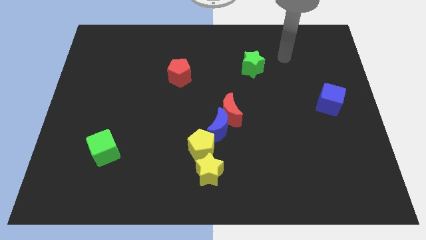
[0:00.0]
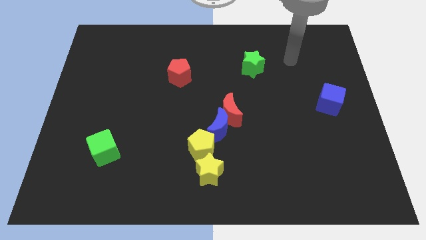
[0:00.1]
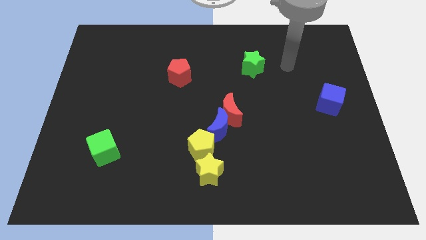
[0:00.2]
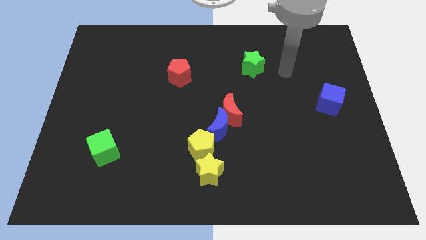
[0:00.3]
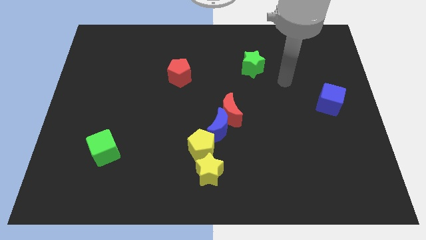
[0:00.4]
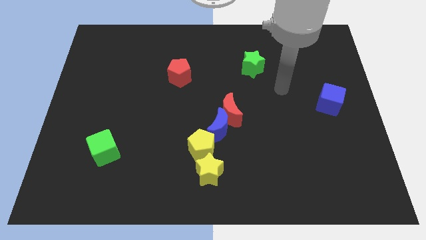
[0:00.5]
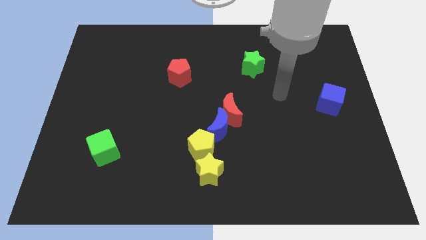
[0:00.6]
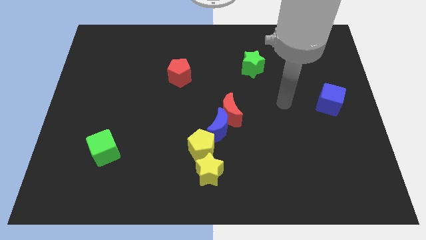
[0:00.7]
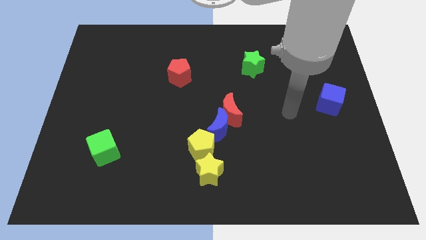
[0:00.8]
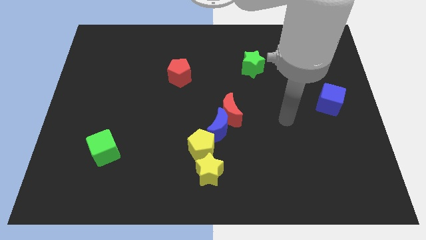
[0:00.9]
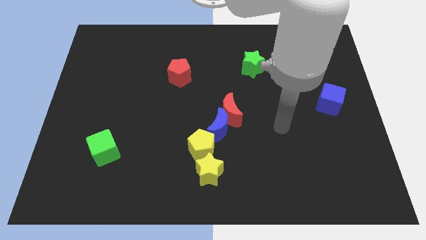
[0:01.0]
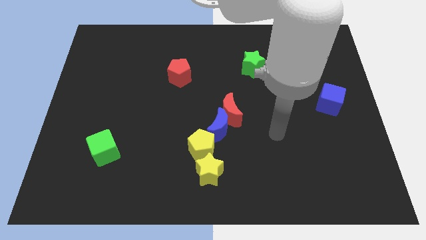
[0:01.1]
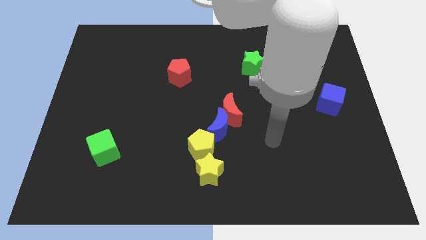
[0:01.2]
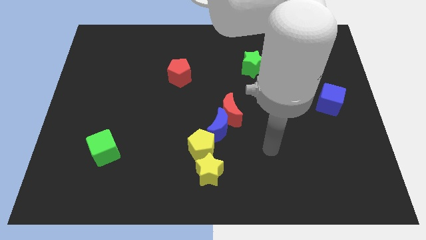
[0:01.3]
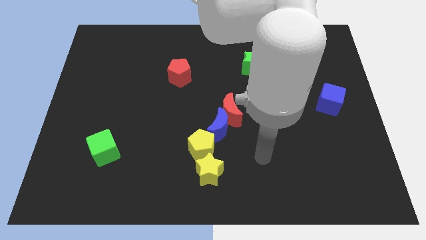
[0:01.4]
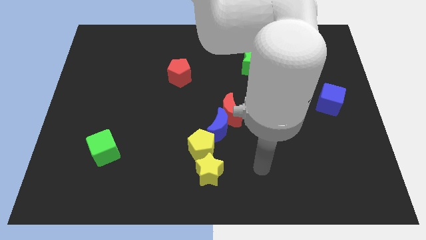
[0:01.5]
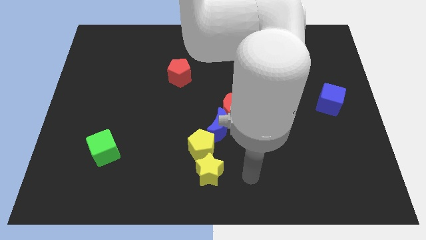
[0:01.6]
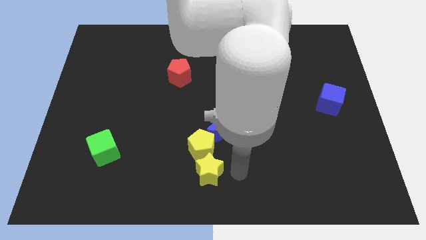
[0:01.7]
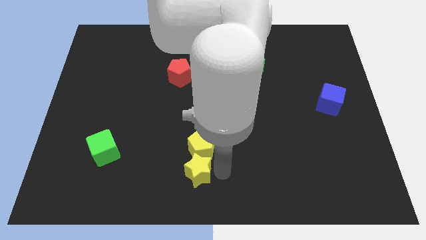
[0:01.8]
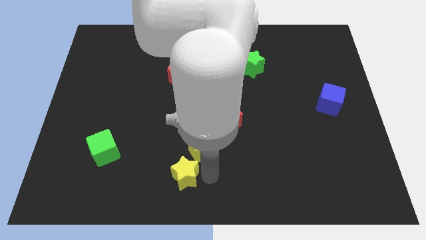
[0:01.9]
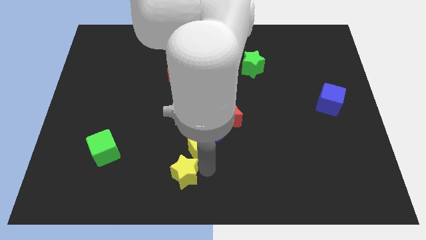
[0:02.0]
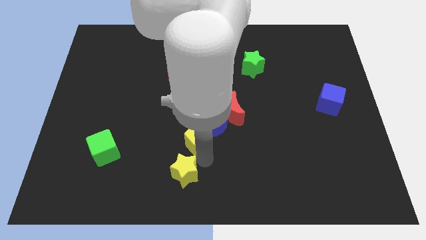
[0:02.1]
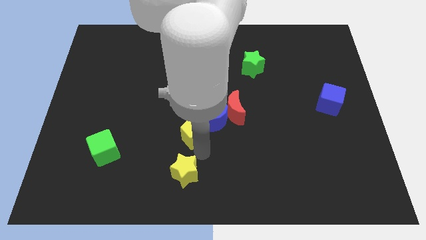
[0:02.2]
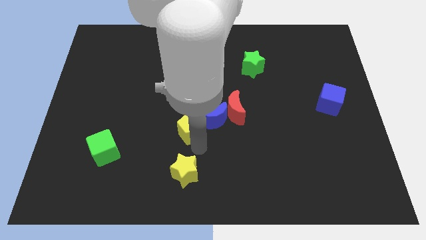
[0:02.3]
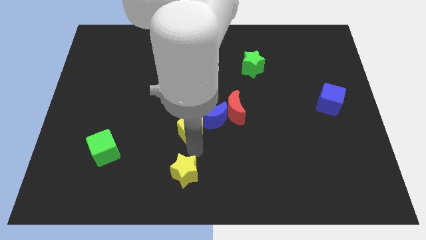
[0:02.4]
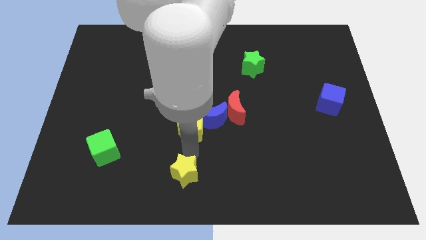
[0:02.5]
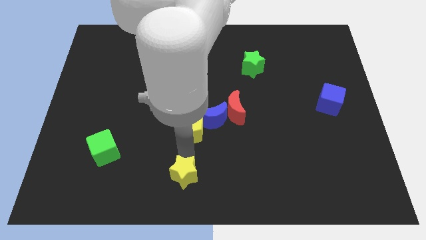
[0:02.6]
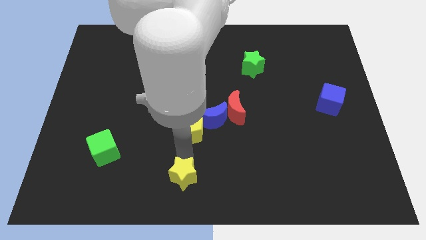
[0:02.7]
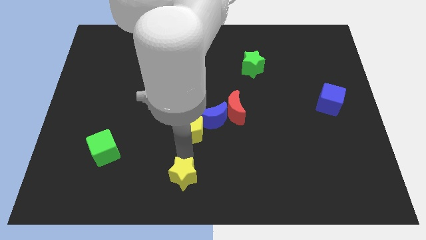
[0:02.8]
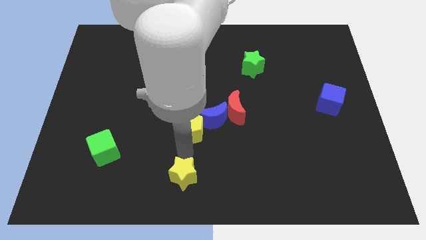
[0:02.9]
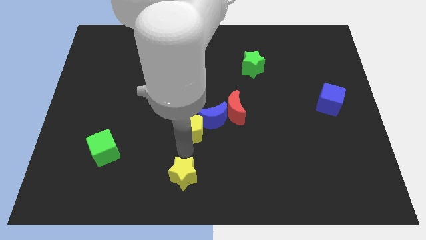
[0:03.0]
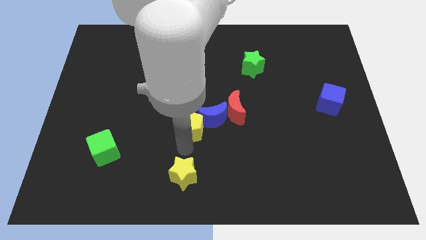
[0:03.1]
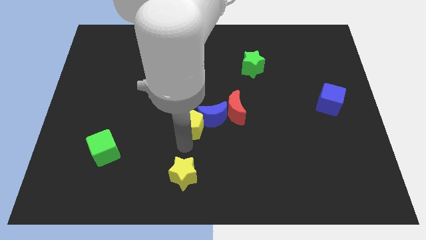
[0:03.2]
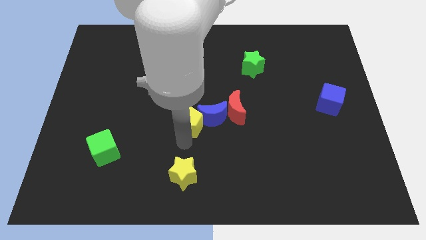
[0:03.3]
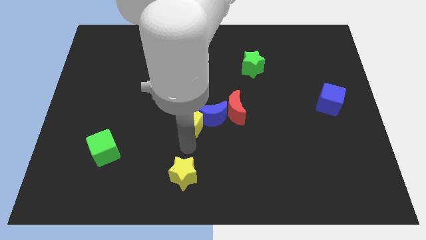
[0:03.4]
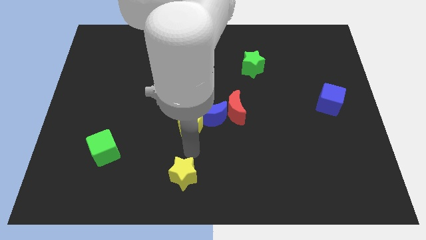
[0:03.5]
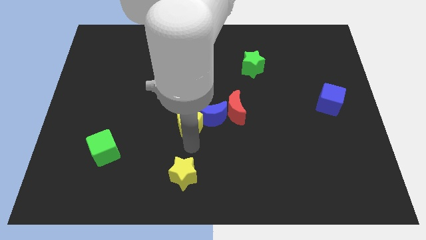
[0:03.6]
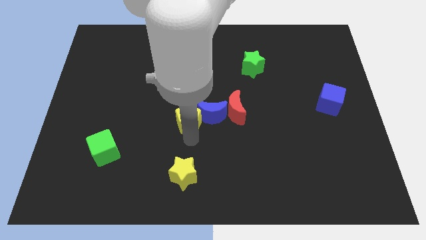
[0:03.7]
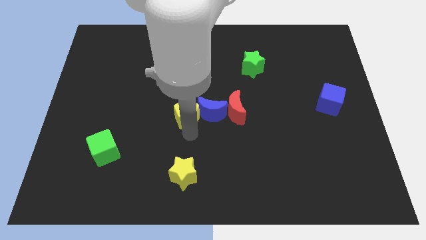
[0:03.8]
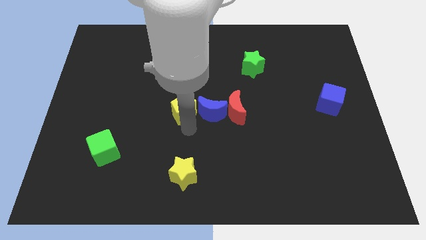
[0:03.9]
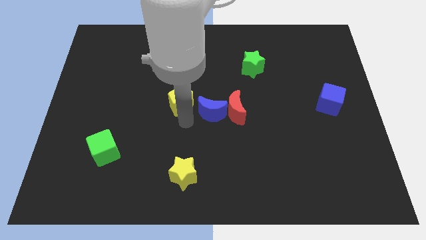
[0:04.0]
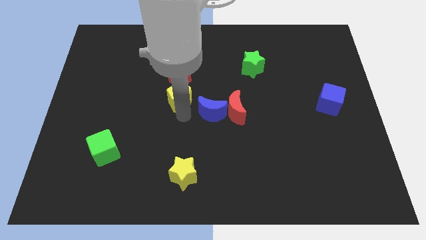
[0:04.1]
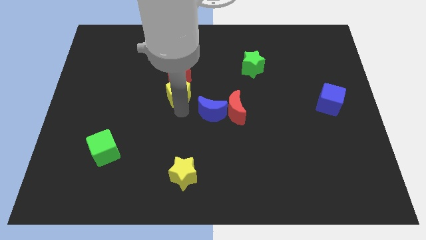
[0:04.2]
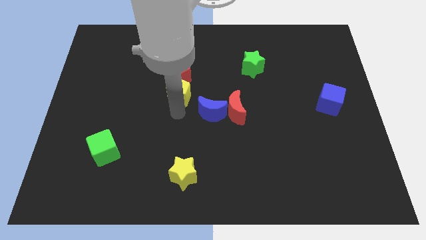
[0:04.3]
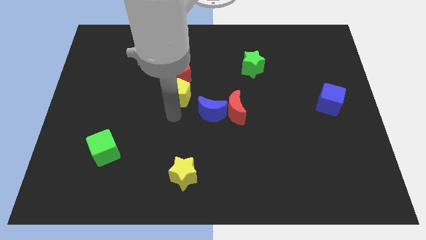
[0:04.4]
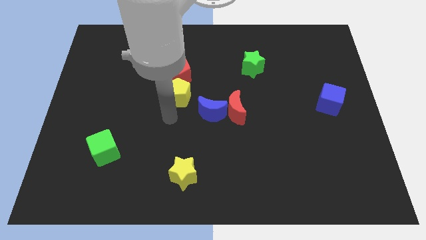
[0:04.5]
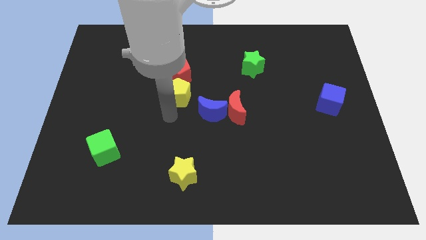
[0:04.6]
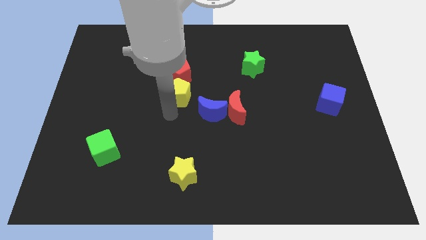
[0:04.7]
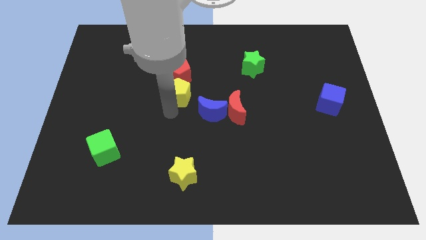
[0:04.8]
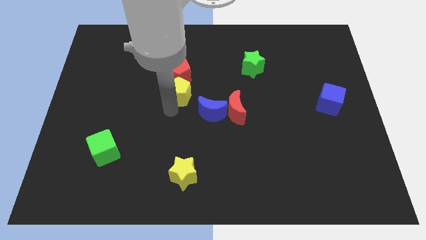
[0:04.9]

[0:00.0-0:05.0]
put the yellow pentagon towards the red pentagon

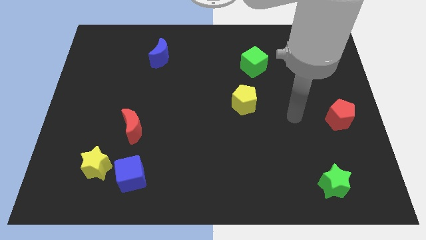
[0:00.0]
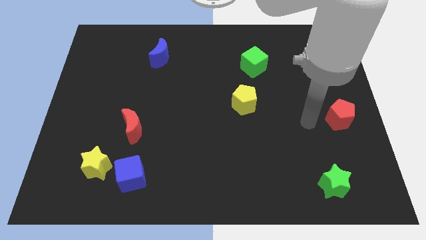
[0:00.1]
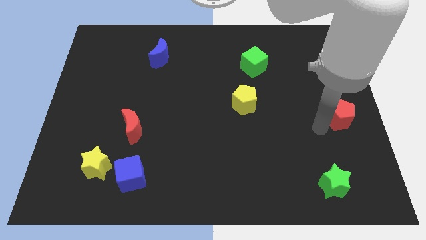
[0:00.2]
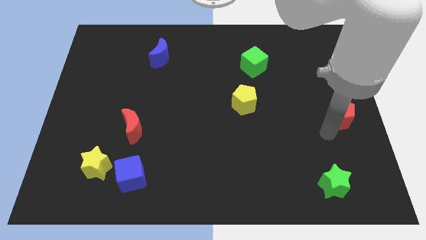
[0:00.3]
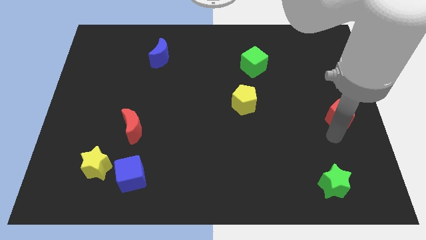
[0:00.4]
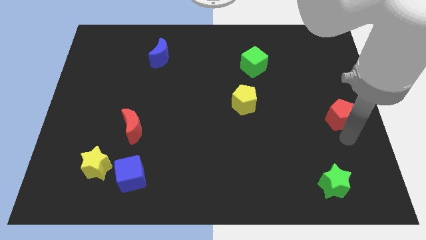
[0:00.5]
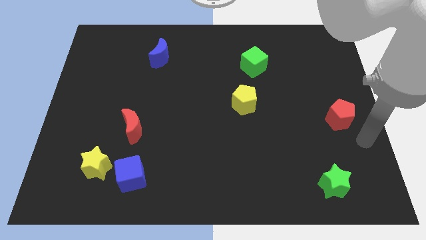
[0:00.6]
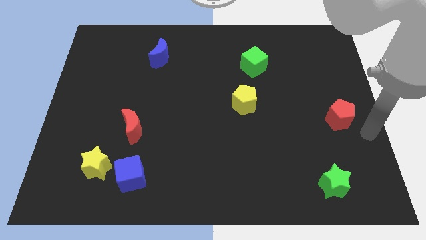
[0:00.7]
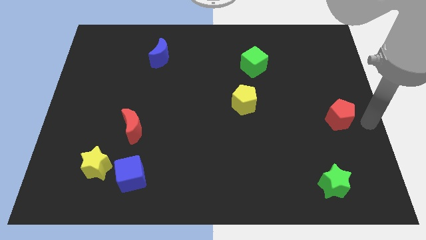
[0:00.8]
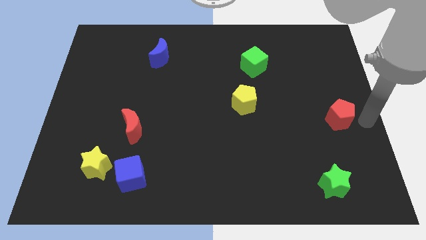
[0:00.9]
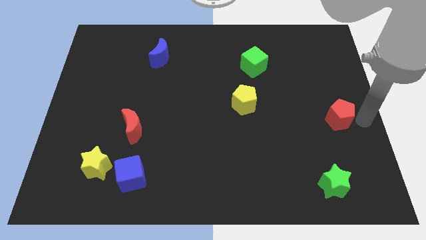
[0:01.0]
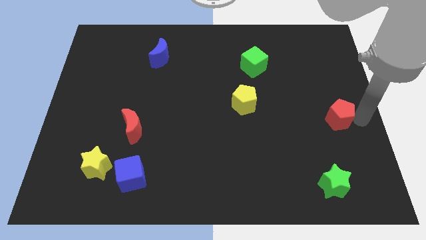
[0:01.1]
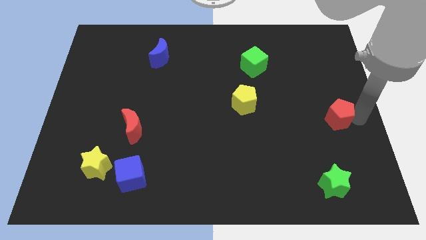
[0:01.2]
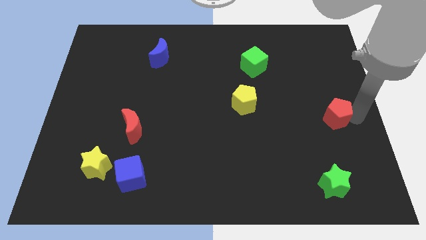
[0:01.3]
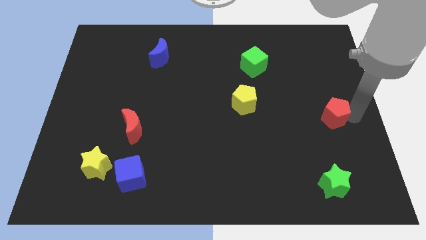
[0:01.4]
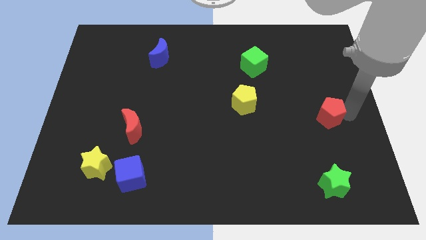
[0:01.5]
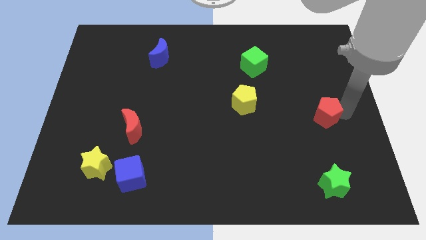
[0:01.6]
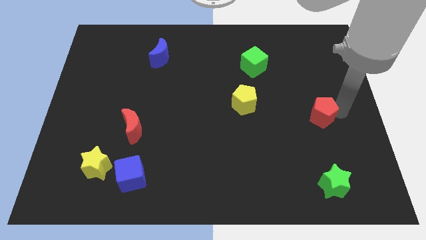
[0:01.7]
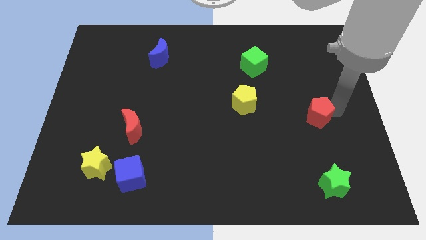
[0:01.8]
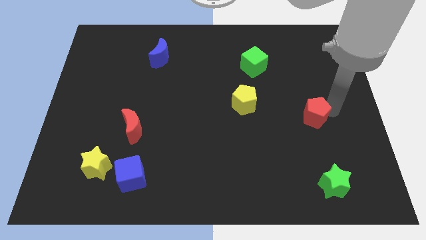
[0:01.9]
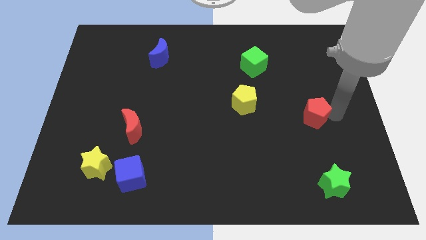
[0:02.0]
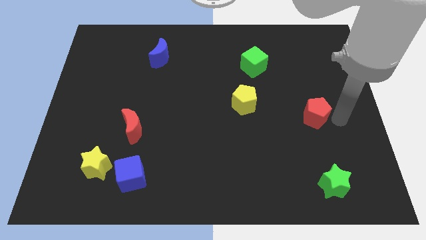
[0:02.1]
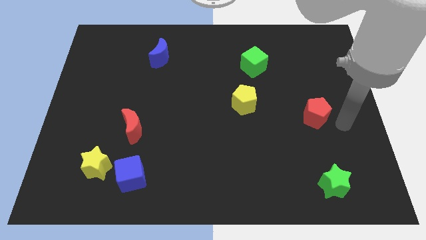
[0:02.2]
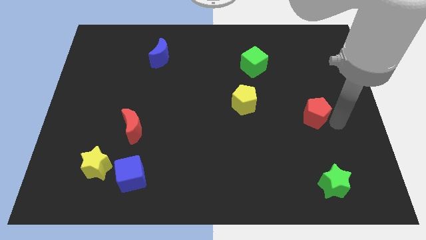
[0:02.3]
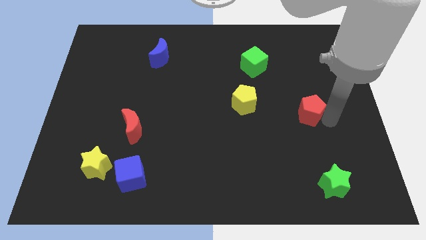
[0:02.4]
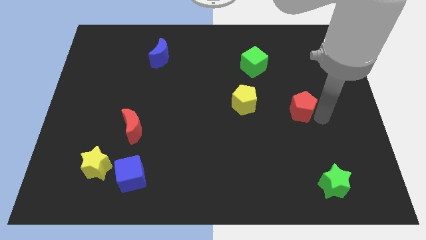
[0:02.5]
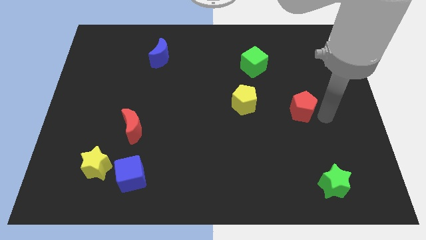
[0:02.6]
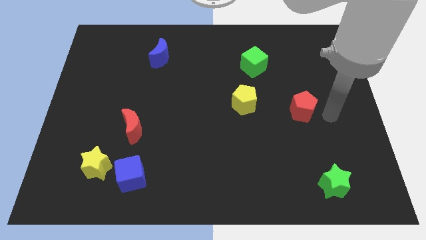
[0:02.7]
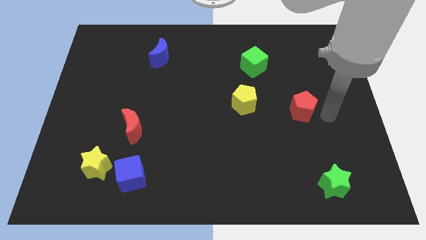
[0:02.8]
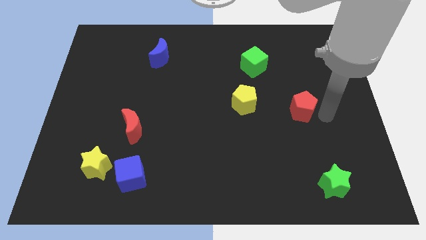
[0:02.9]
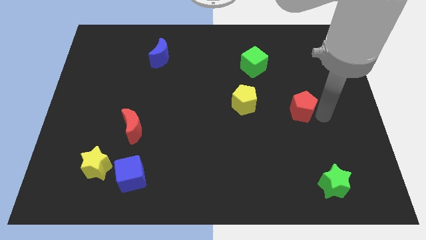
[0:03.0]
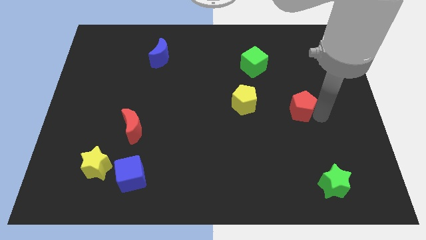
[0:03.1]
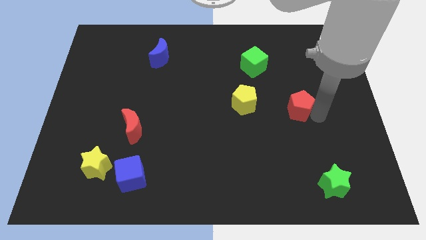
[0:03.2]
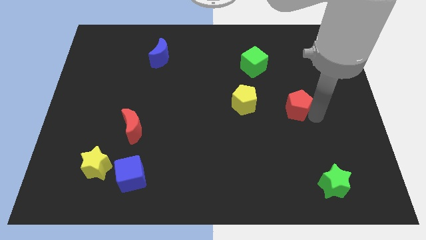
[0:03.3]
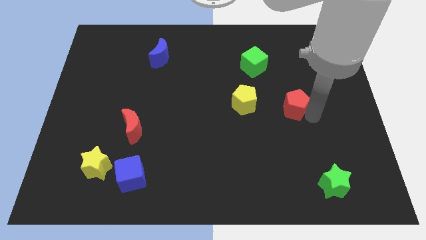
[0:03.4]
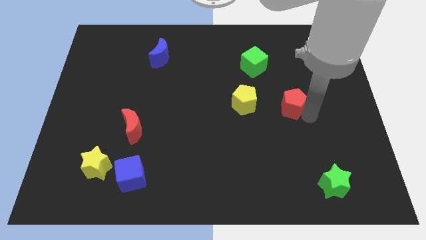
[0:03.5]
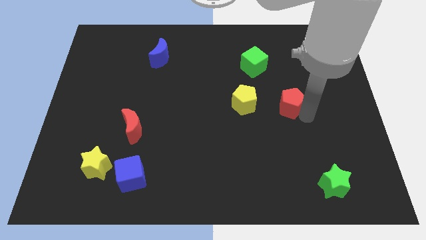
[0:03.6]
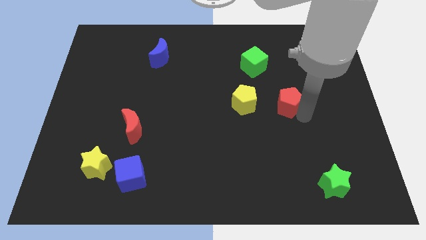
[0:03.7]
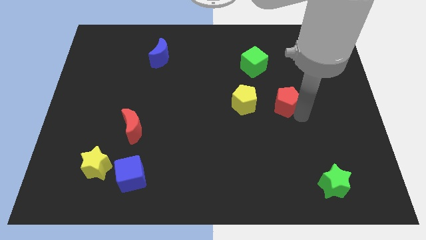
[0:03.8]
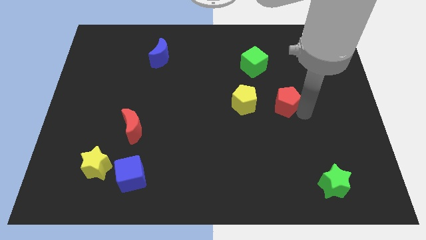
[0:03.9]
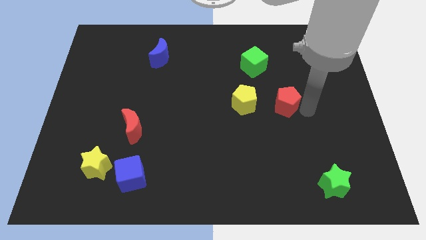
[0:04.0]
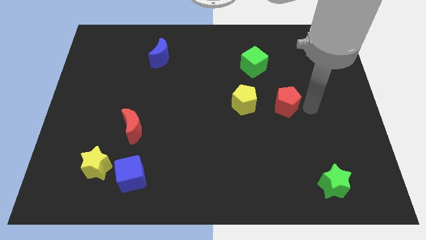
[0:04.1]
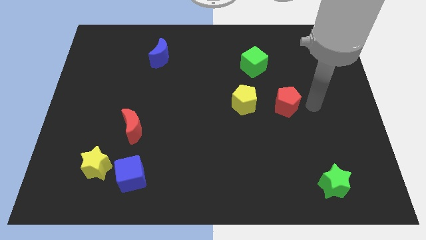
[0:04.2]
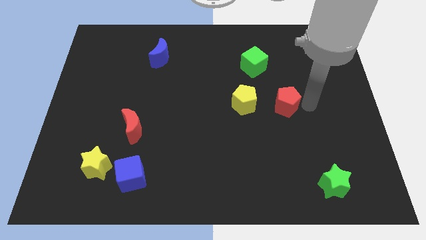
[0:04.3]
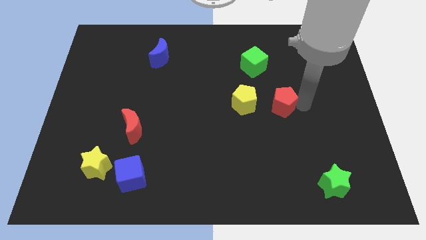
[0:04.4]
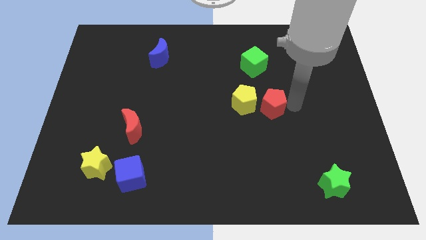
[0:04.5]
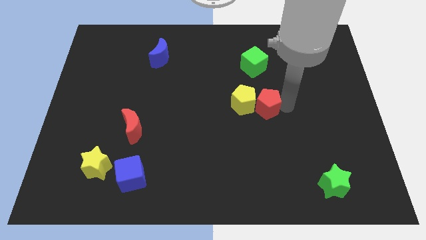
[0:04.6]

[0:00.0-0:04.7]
slide the red pentagon close to the yellow pentagon
